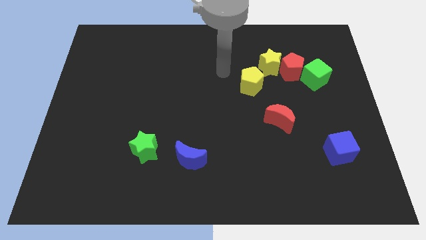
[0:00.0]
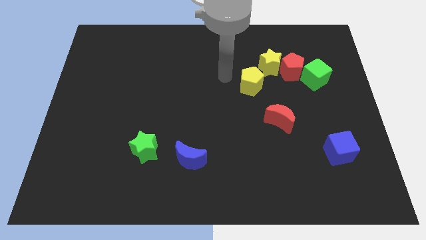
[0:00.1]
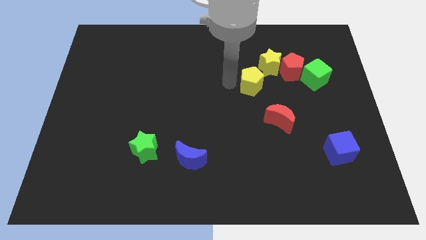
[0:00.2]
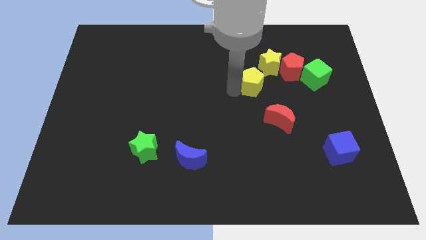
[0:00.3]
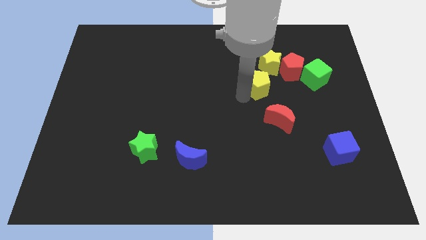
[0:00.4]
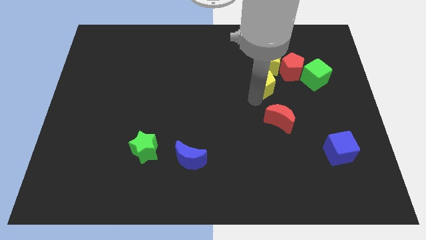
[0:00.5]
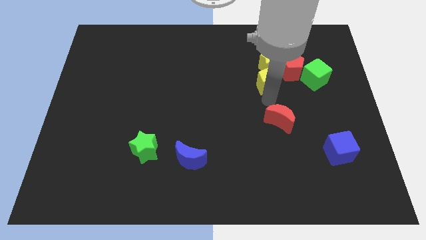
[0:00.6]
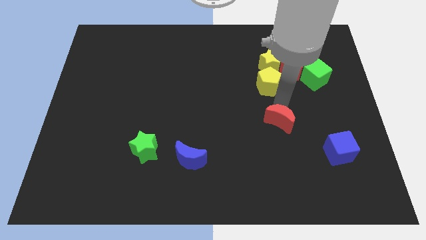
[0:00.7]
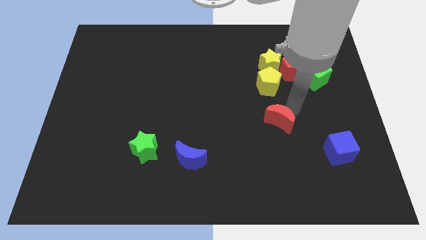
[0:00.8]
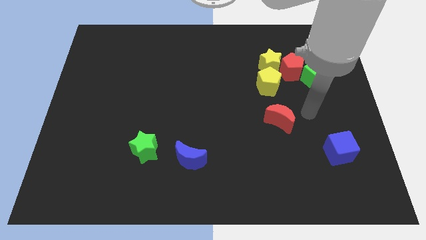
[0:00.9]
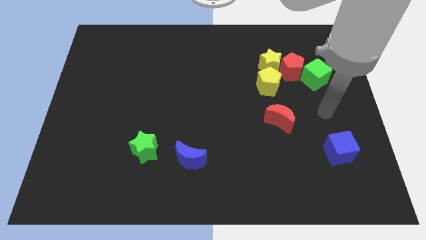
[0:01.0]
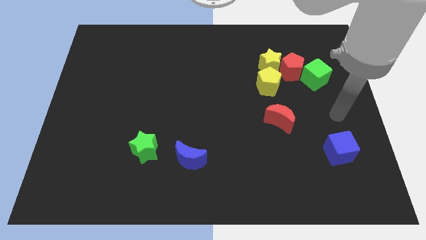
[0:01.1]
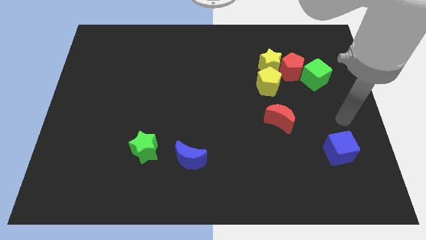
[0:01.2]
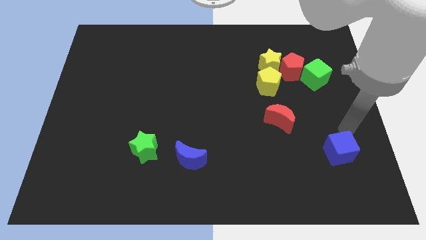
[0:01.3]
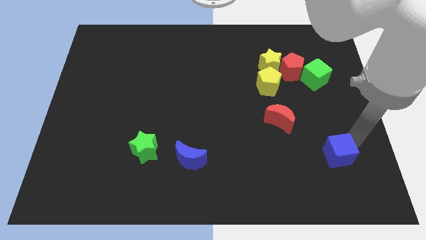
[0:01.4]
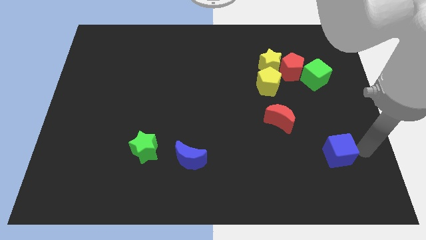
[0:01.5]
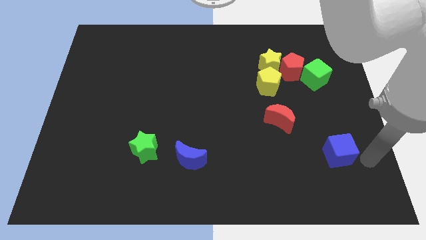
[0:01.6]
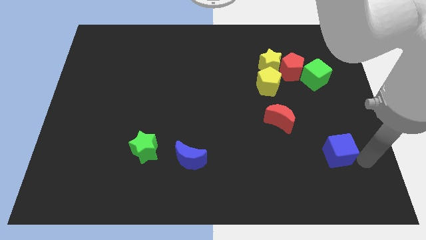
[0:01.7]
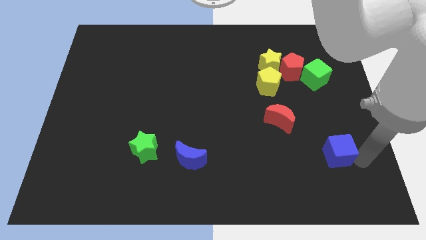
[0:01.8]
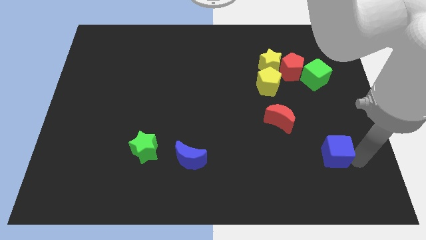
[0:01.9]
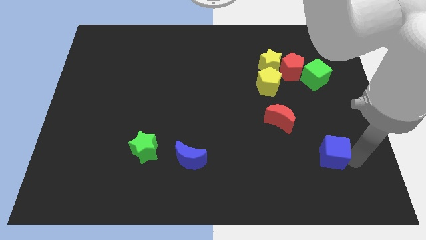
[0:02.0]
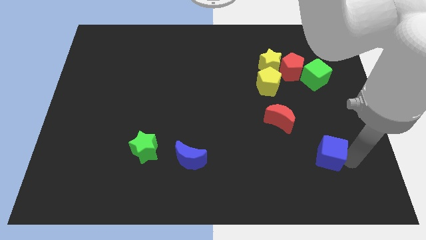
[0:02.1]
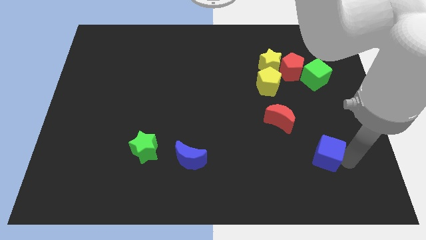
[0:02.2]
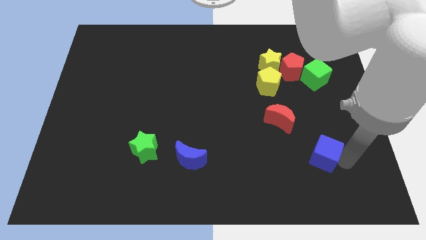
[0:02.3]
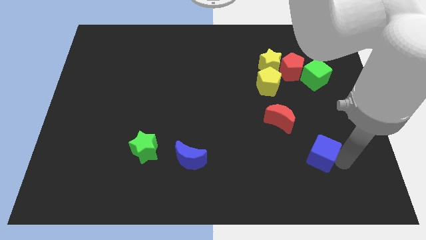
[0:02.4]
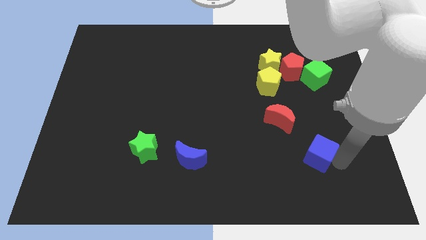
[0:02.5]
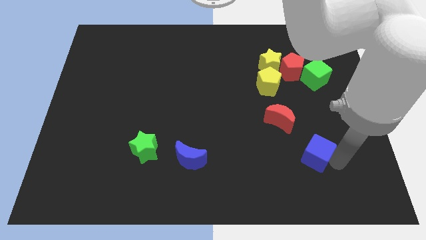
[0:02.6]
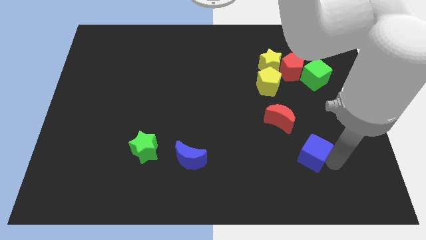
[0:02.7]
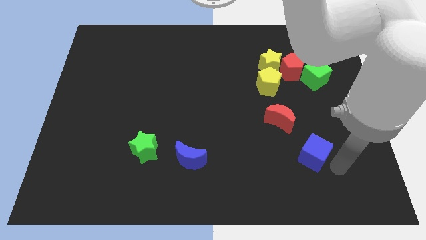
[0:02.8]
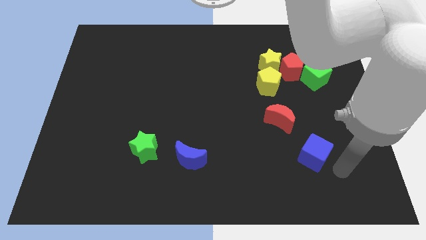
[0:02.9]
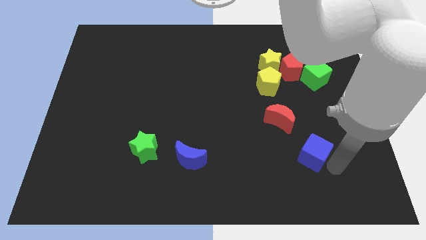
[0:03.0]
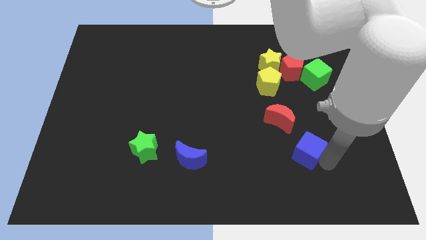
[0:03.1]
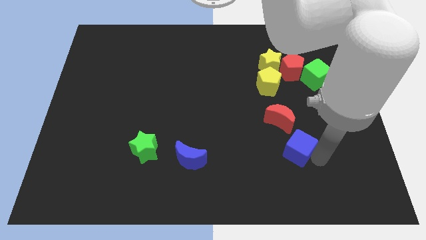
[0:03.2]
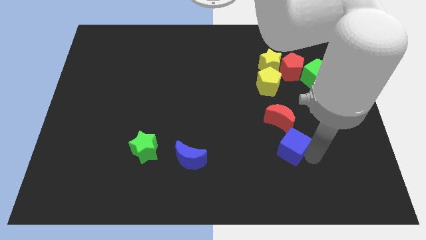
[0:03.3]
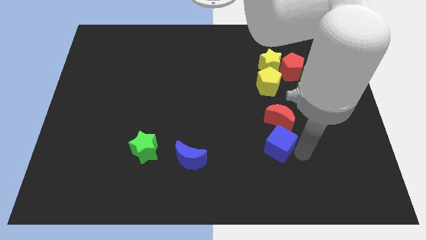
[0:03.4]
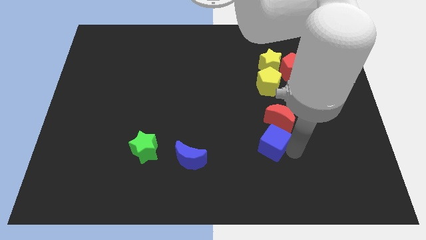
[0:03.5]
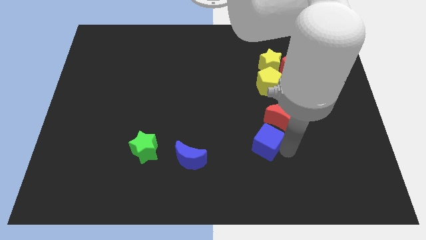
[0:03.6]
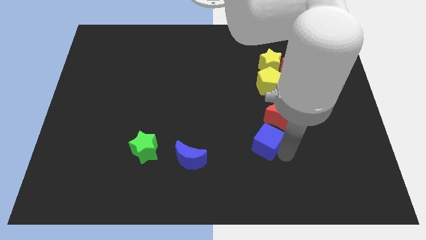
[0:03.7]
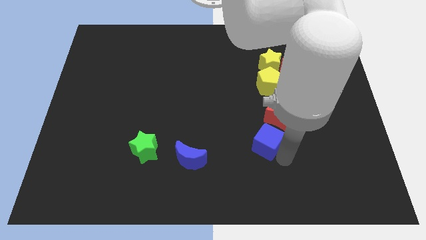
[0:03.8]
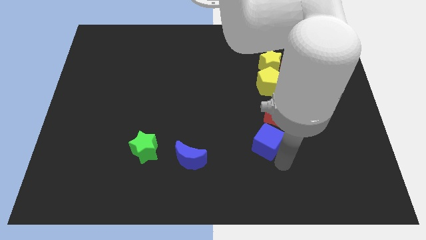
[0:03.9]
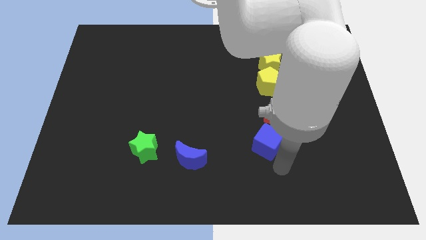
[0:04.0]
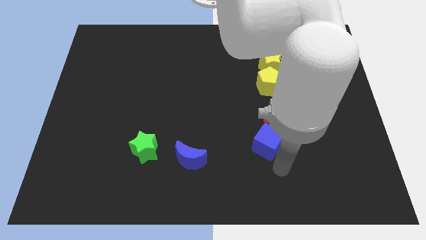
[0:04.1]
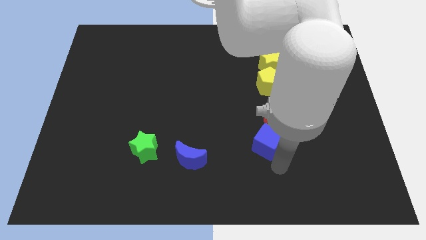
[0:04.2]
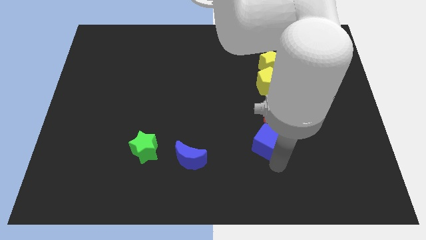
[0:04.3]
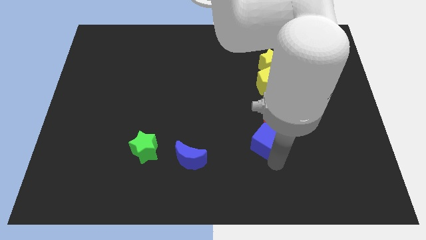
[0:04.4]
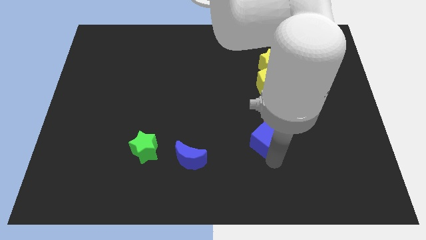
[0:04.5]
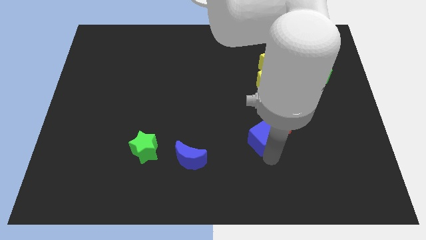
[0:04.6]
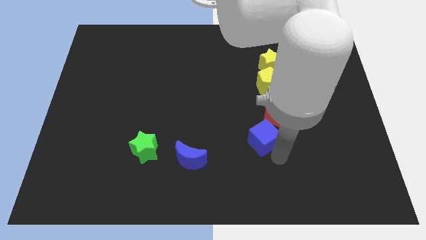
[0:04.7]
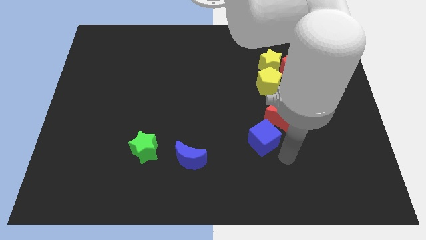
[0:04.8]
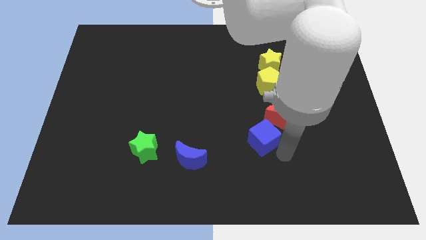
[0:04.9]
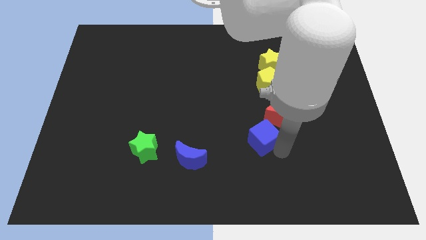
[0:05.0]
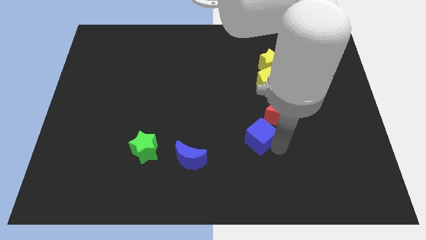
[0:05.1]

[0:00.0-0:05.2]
push the blue cube just left of the red moon

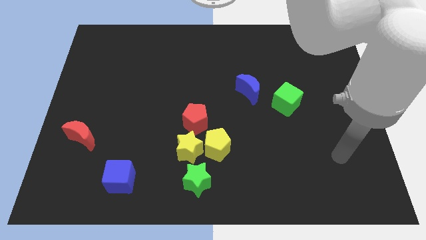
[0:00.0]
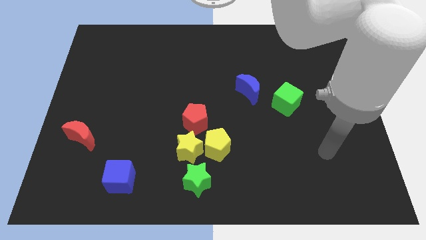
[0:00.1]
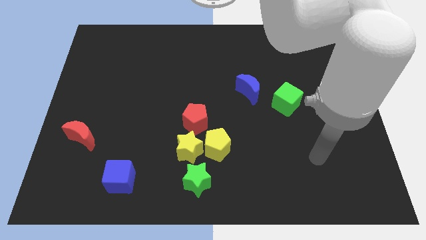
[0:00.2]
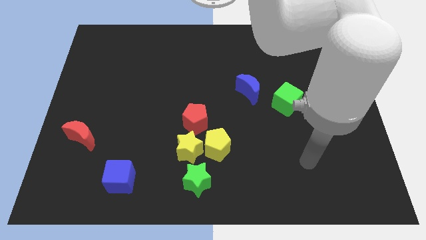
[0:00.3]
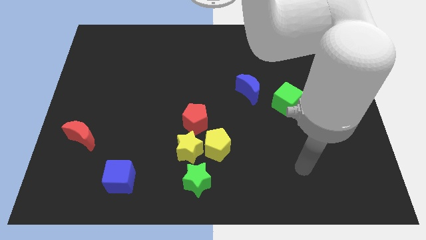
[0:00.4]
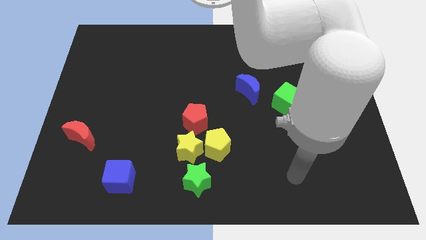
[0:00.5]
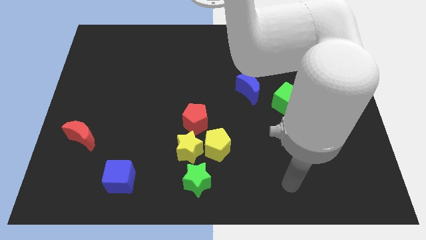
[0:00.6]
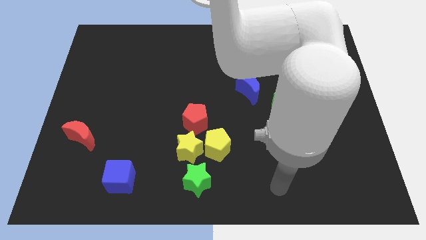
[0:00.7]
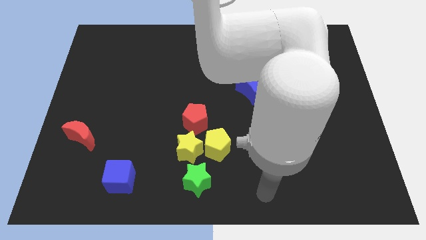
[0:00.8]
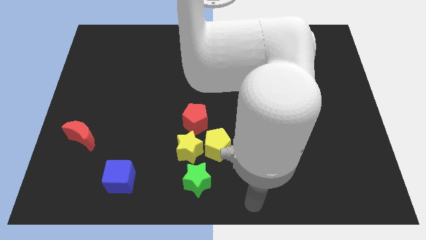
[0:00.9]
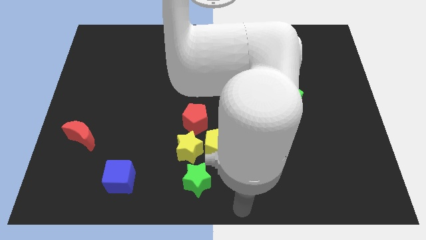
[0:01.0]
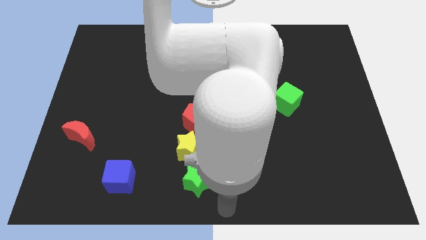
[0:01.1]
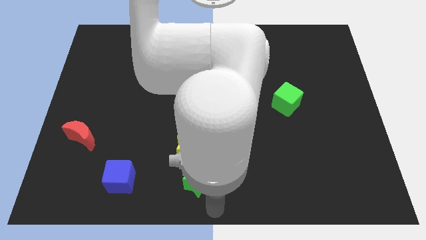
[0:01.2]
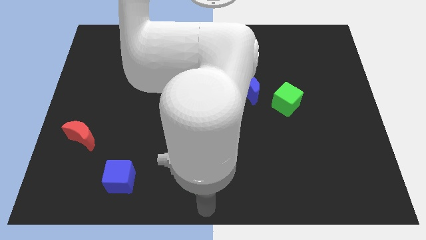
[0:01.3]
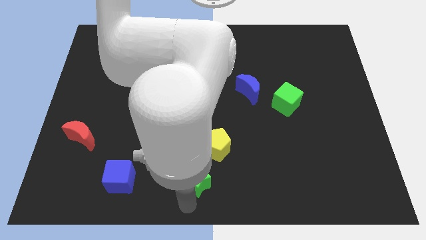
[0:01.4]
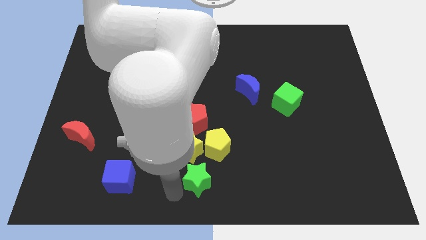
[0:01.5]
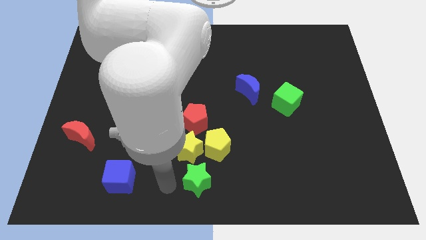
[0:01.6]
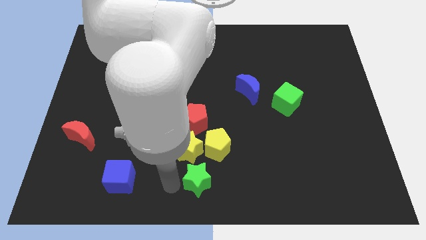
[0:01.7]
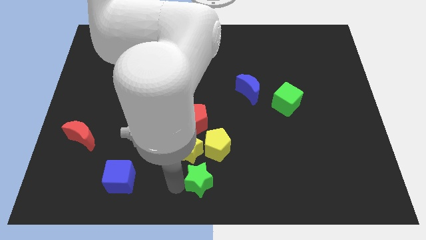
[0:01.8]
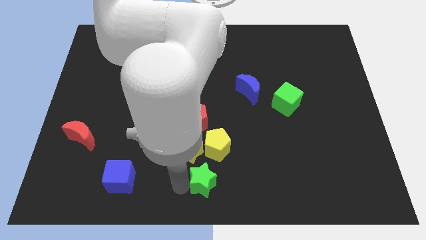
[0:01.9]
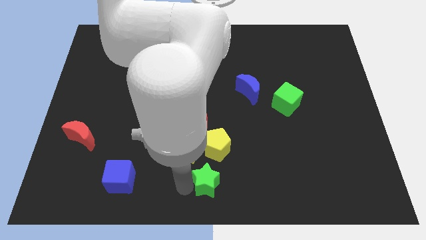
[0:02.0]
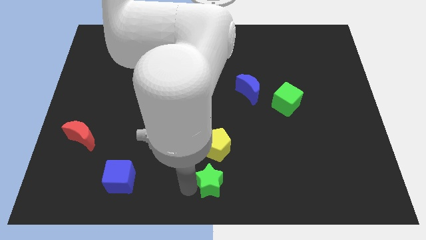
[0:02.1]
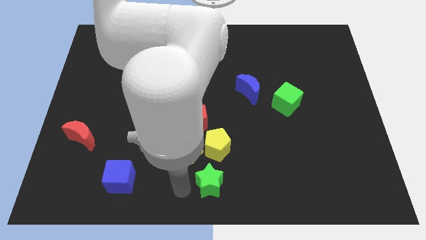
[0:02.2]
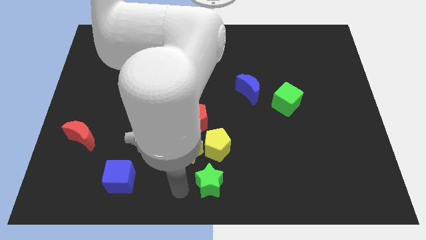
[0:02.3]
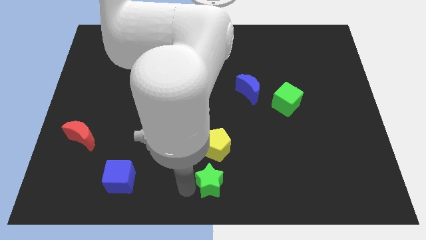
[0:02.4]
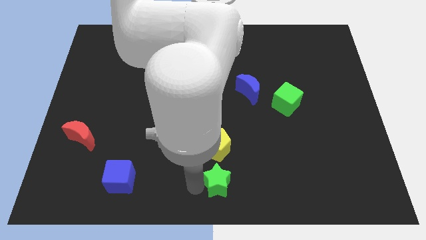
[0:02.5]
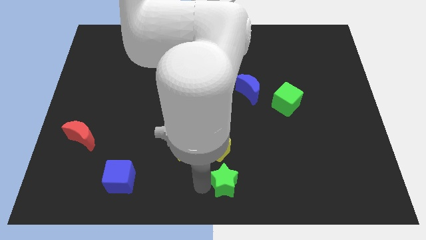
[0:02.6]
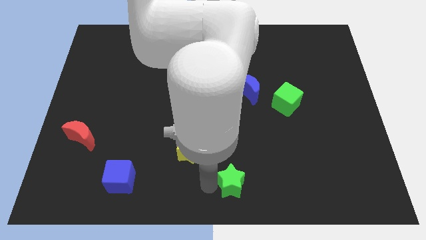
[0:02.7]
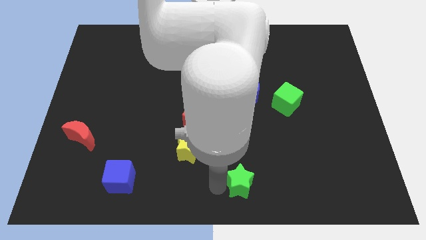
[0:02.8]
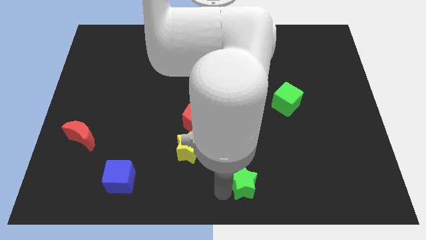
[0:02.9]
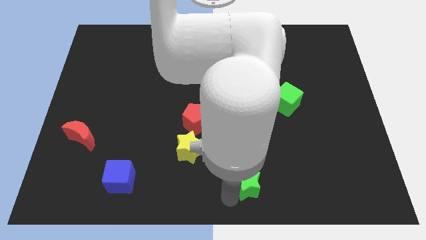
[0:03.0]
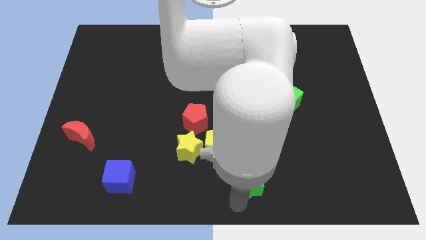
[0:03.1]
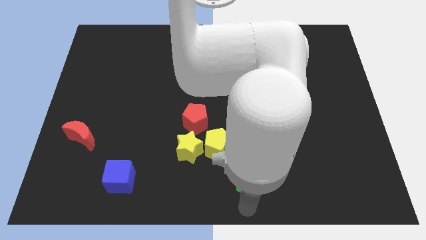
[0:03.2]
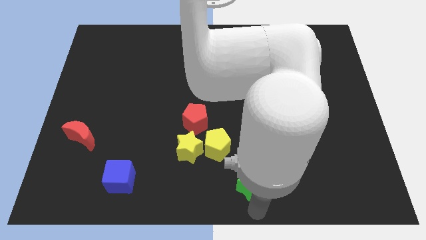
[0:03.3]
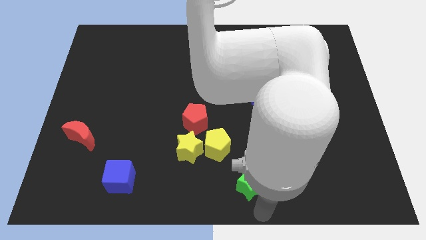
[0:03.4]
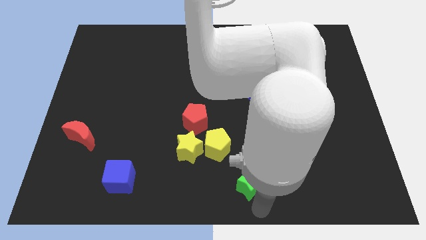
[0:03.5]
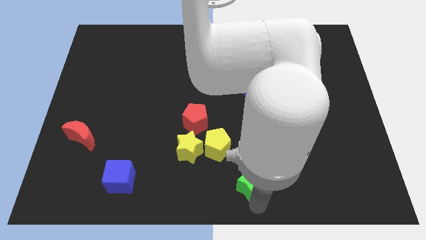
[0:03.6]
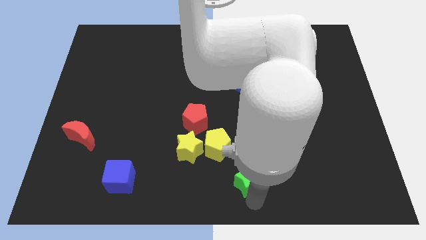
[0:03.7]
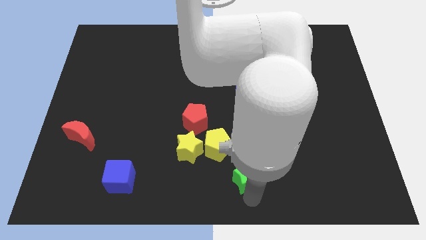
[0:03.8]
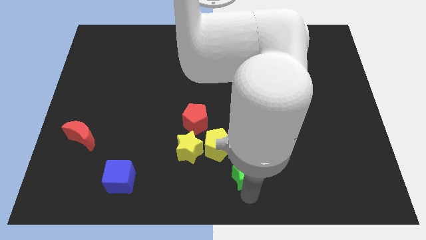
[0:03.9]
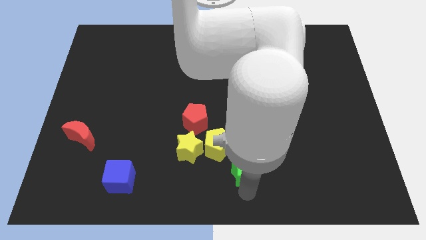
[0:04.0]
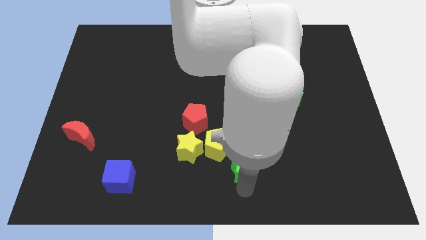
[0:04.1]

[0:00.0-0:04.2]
put the green star to the right side of the yellow star
